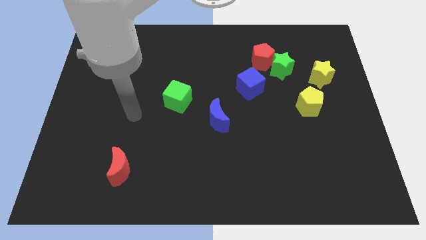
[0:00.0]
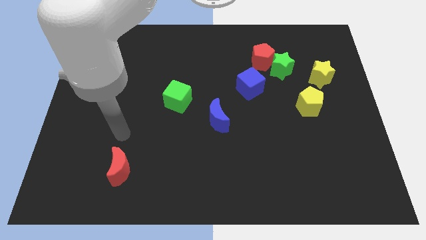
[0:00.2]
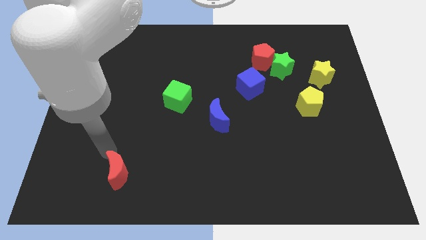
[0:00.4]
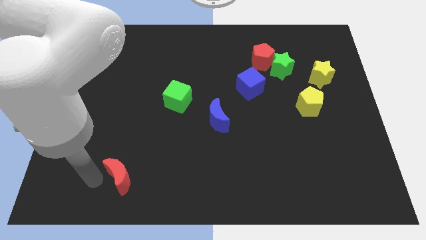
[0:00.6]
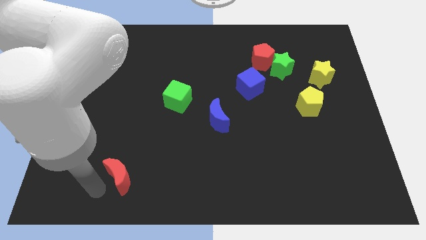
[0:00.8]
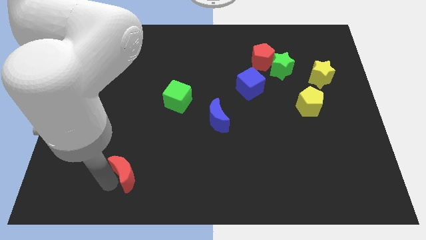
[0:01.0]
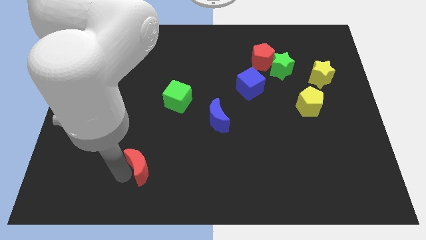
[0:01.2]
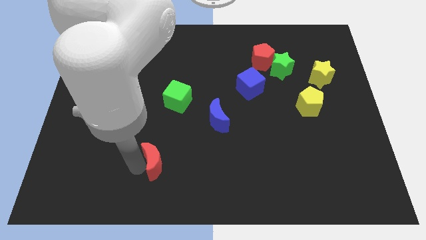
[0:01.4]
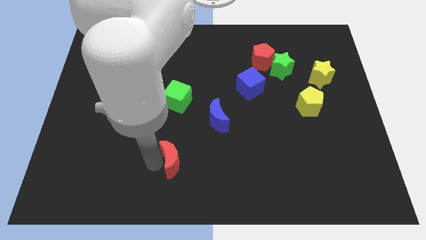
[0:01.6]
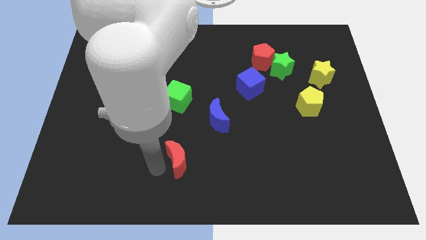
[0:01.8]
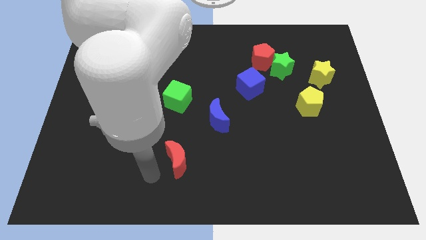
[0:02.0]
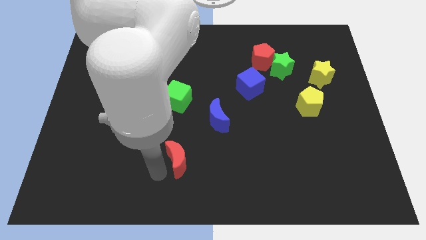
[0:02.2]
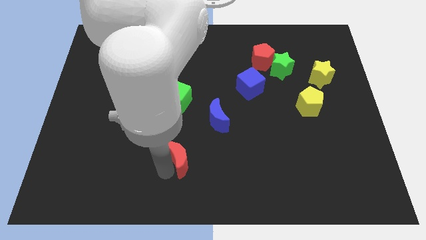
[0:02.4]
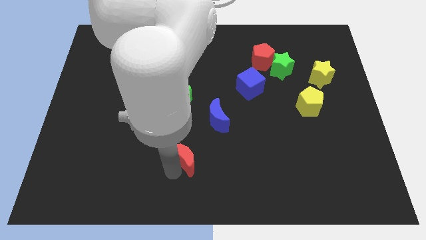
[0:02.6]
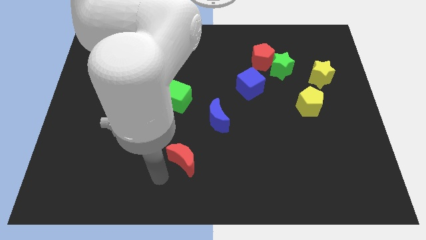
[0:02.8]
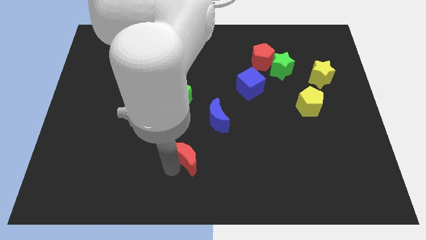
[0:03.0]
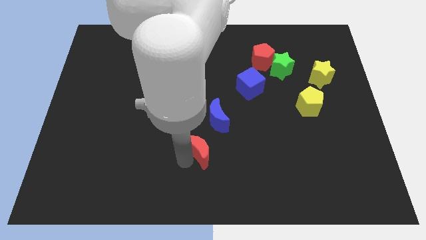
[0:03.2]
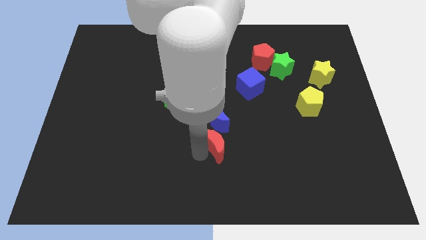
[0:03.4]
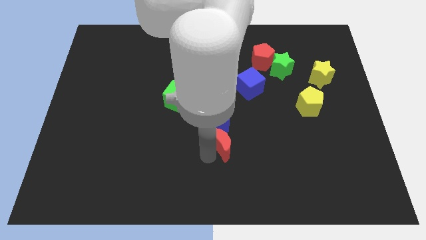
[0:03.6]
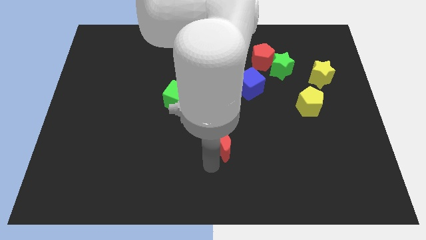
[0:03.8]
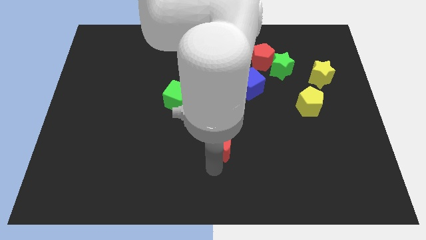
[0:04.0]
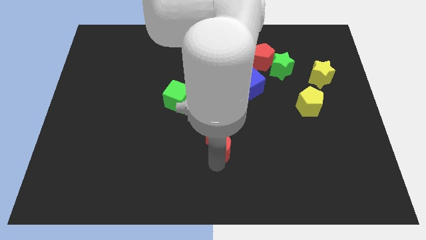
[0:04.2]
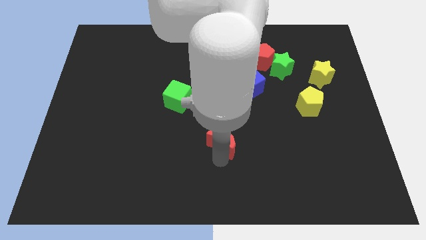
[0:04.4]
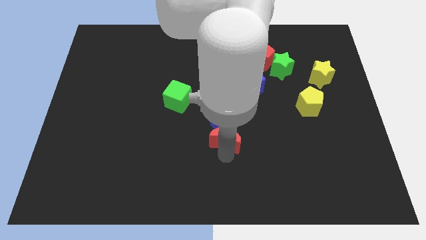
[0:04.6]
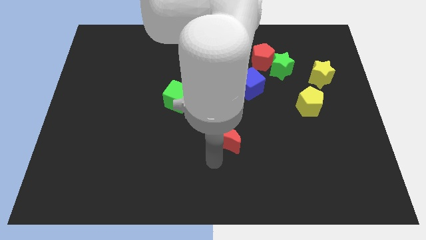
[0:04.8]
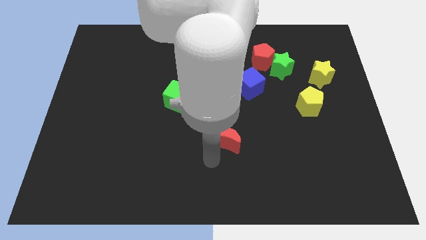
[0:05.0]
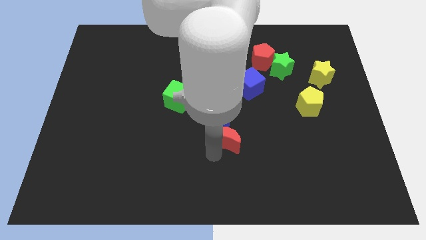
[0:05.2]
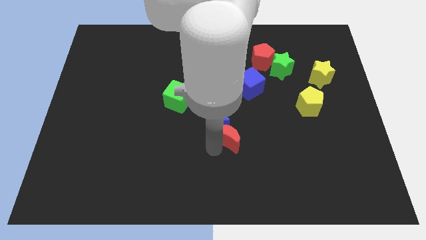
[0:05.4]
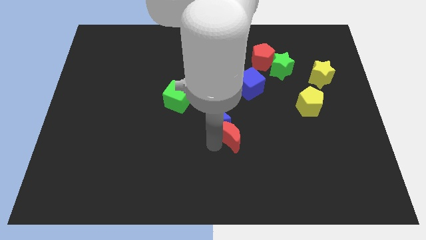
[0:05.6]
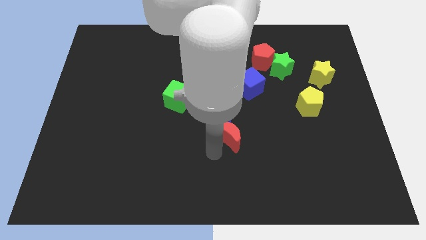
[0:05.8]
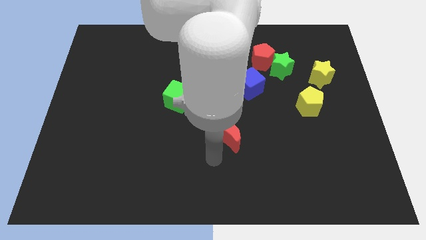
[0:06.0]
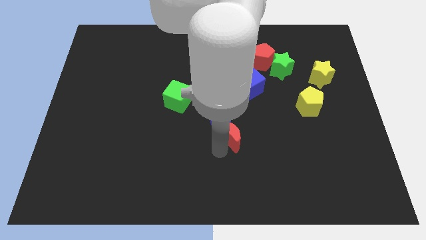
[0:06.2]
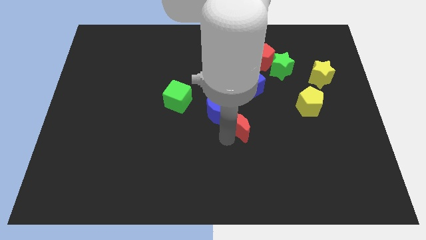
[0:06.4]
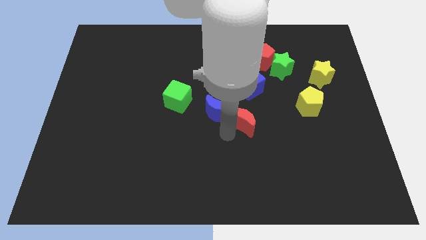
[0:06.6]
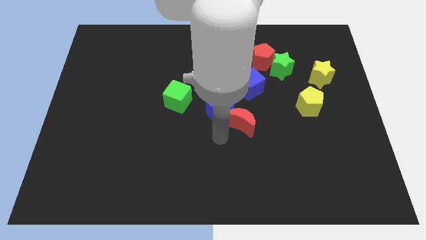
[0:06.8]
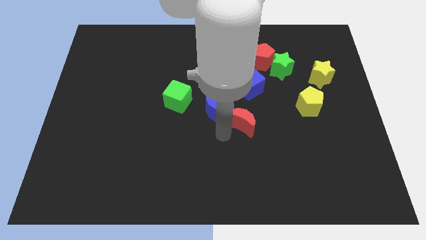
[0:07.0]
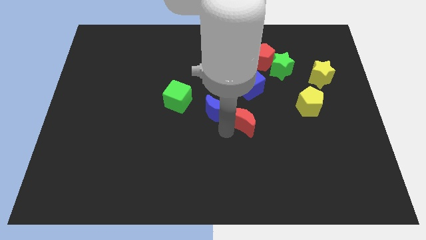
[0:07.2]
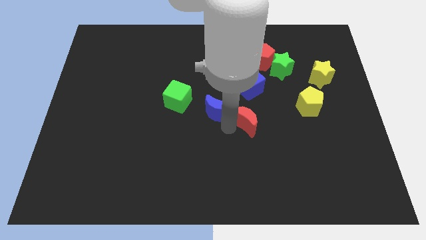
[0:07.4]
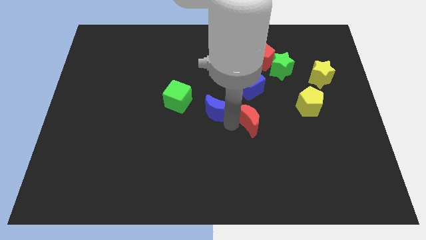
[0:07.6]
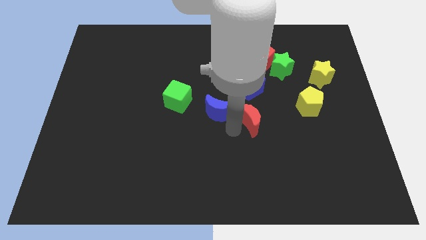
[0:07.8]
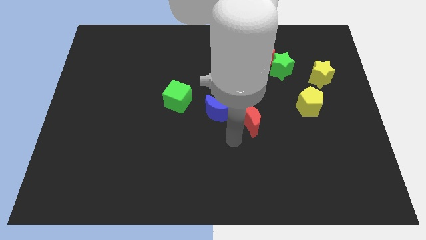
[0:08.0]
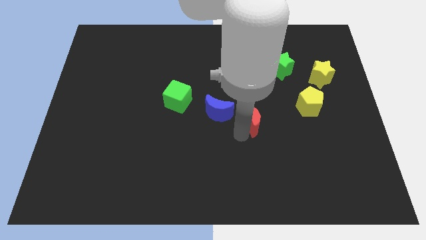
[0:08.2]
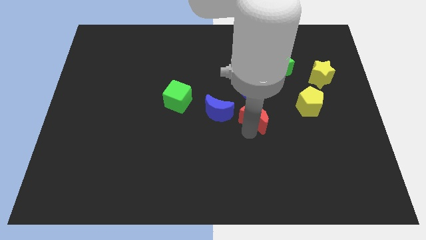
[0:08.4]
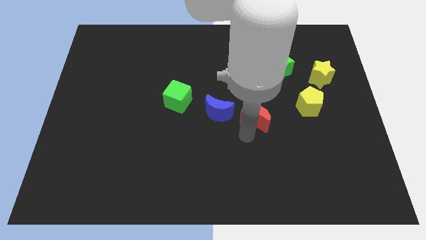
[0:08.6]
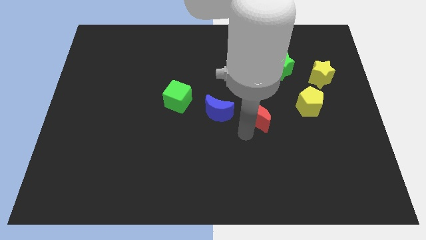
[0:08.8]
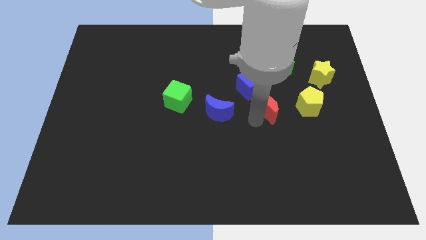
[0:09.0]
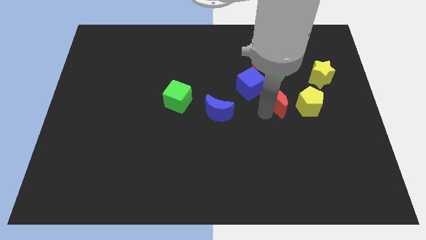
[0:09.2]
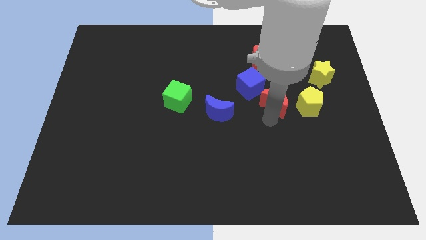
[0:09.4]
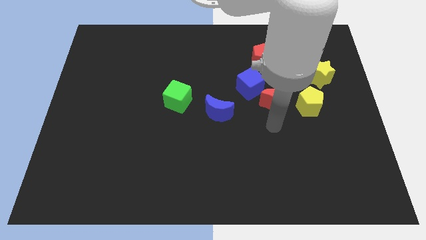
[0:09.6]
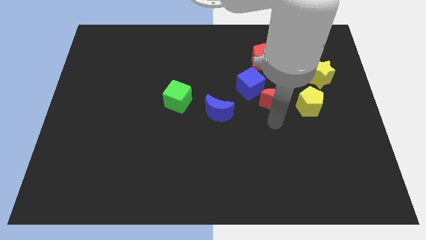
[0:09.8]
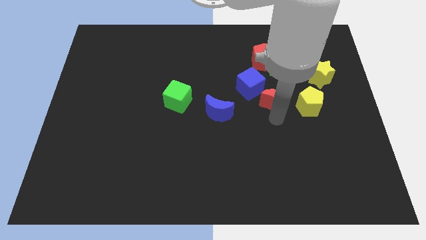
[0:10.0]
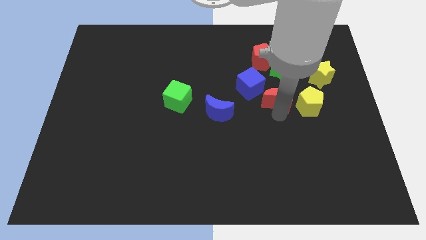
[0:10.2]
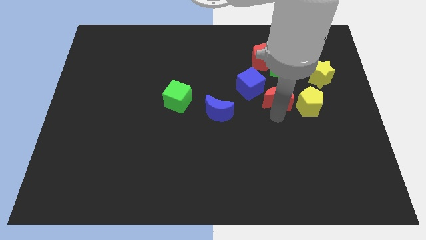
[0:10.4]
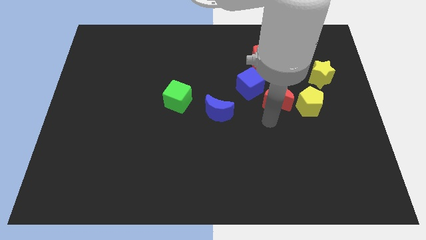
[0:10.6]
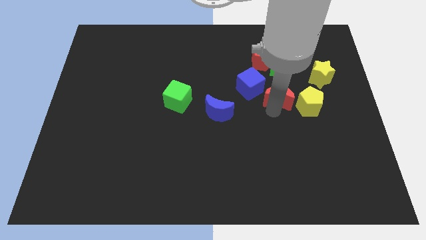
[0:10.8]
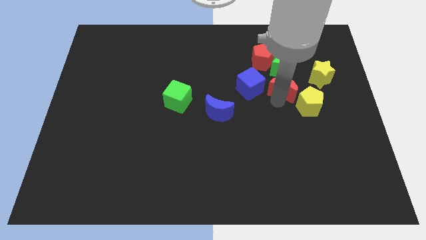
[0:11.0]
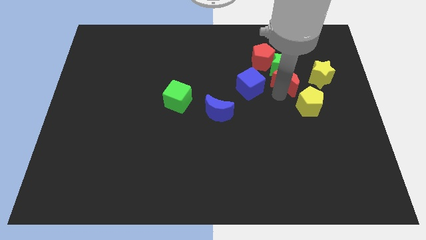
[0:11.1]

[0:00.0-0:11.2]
put the red moon above the yellow pentagon

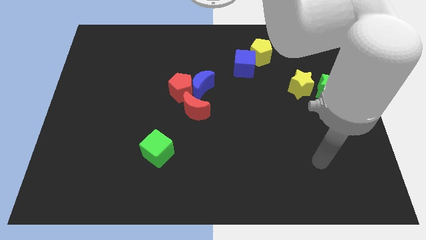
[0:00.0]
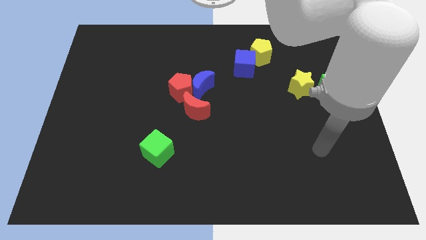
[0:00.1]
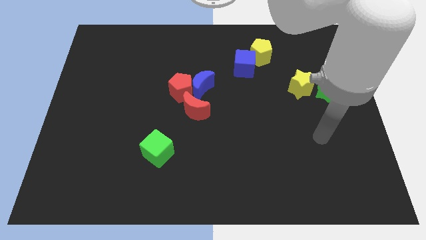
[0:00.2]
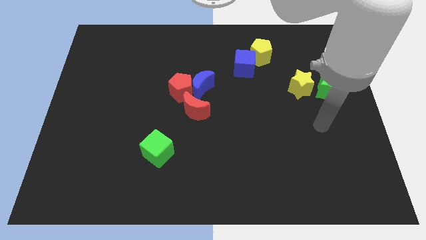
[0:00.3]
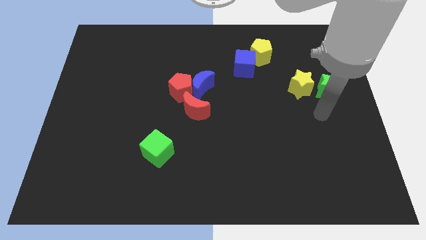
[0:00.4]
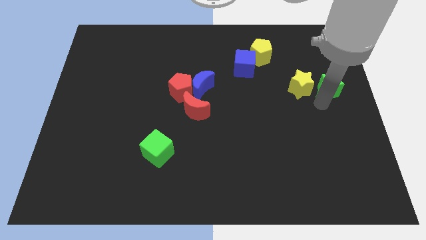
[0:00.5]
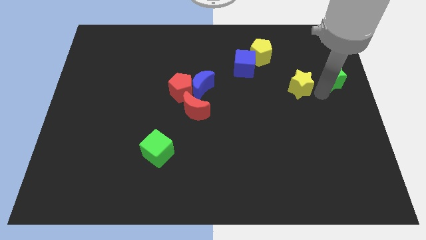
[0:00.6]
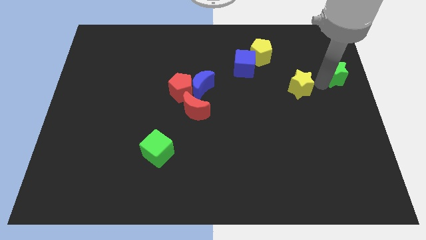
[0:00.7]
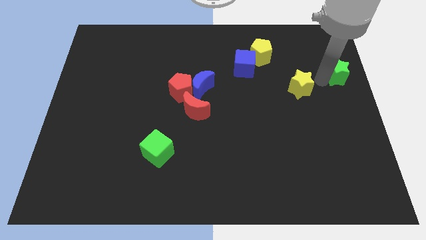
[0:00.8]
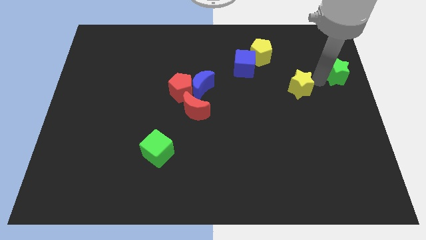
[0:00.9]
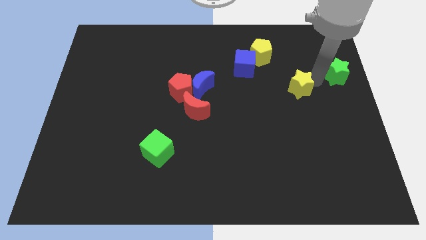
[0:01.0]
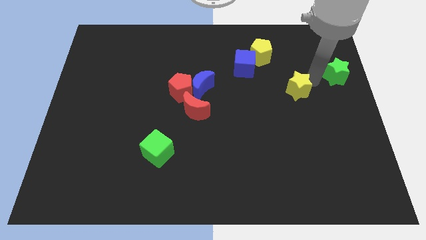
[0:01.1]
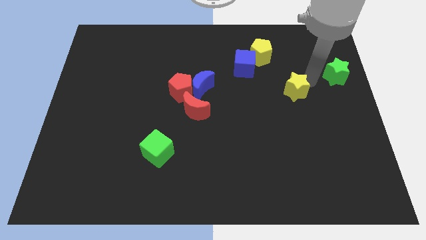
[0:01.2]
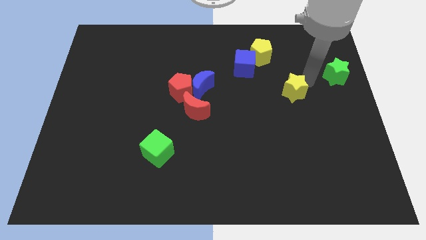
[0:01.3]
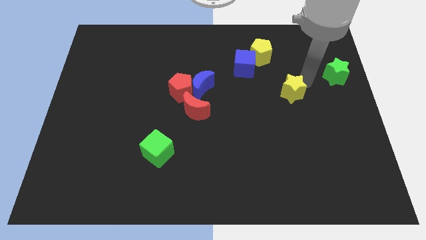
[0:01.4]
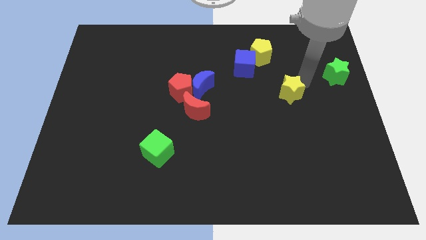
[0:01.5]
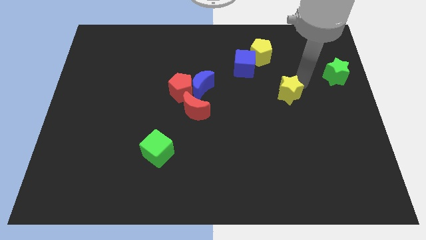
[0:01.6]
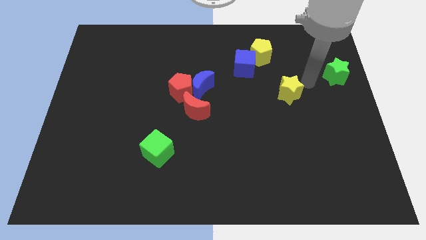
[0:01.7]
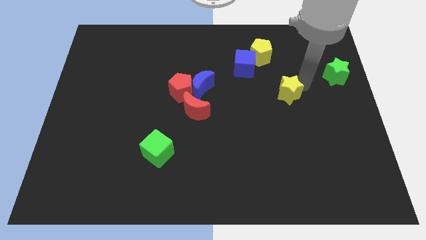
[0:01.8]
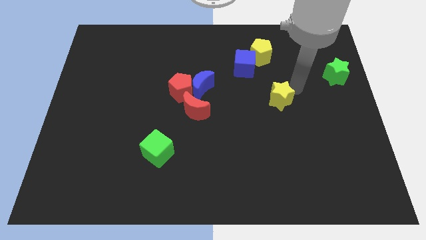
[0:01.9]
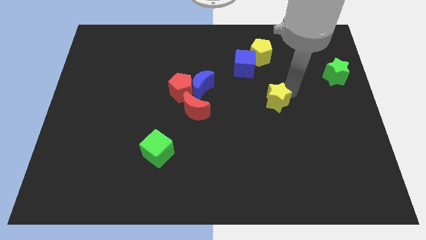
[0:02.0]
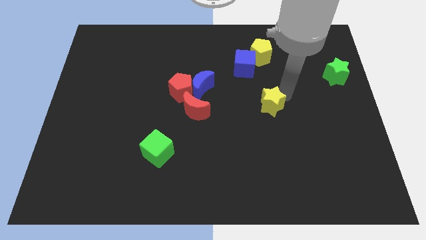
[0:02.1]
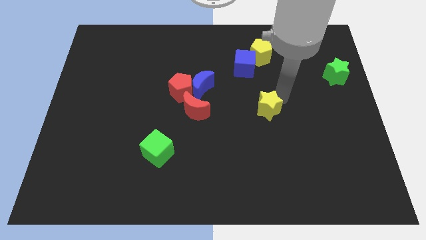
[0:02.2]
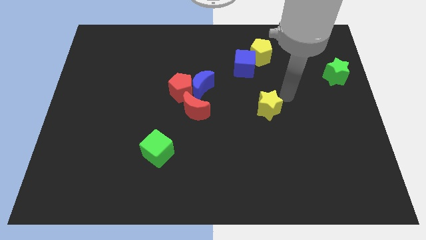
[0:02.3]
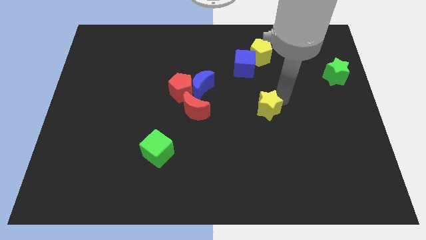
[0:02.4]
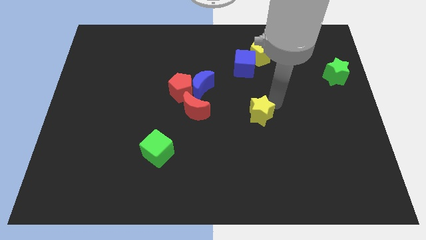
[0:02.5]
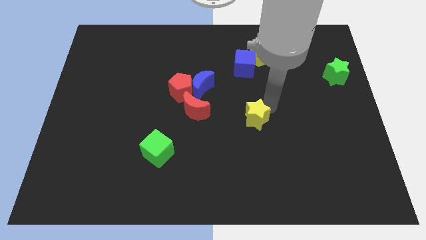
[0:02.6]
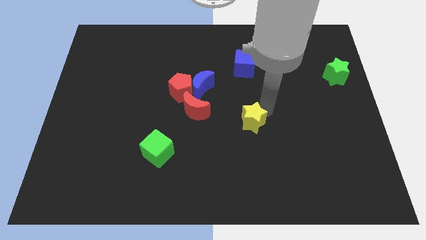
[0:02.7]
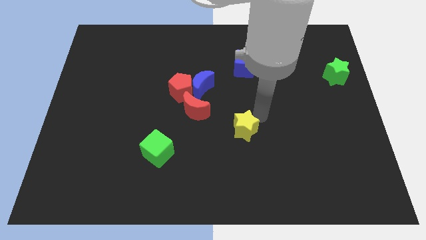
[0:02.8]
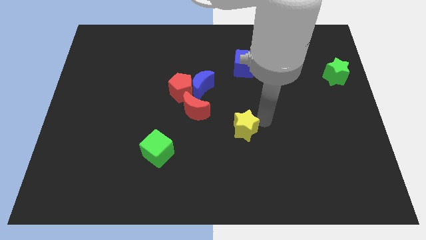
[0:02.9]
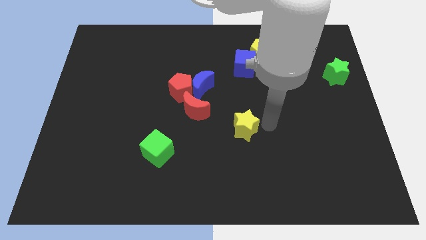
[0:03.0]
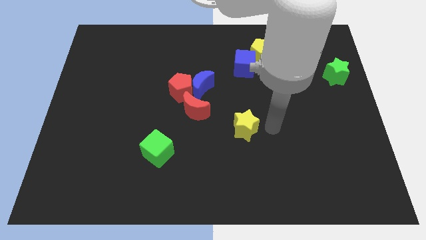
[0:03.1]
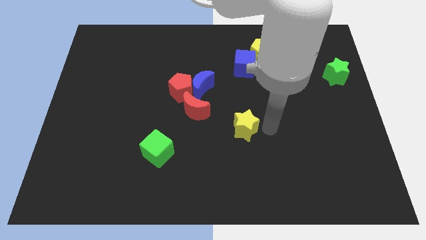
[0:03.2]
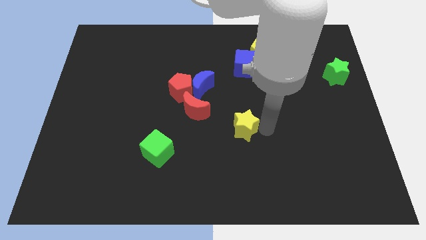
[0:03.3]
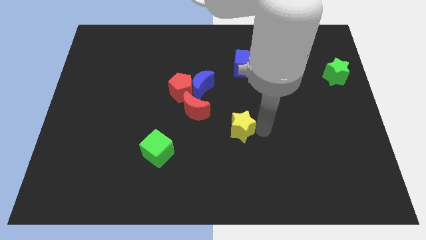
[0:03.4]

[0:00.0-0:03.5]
slide the yellow star to the bottom right of the red moon
